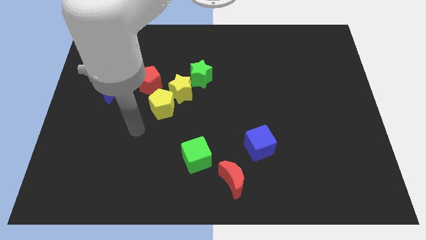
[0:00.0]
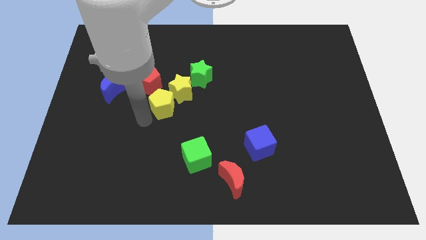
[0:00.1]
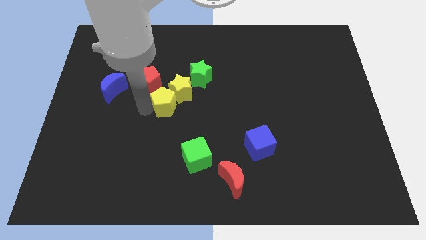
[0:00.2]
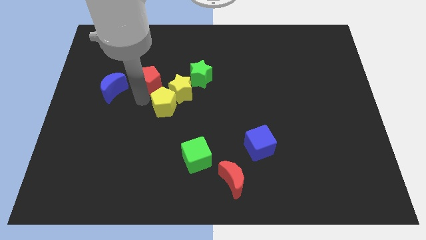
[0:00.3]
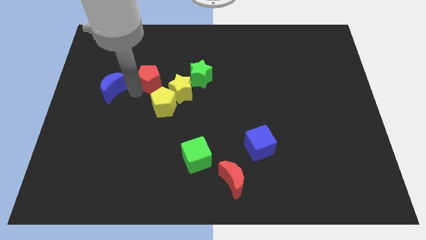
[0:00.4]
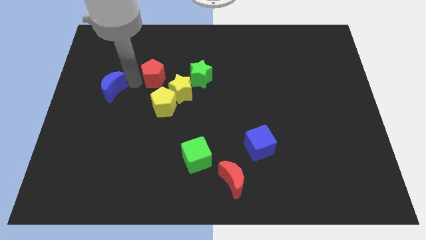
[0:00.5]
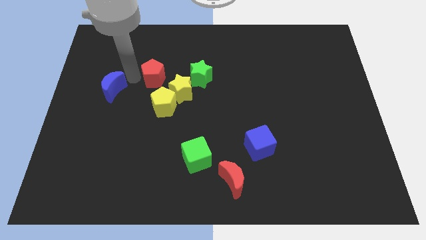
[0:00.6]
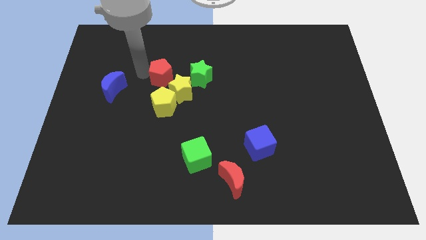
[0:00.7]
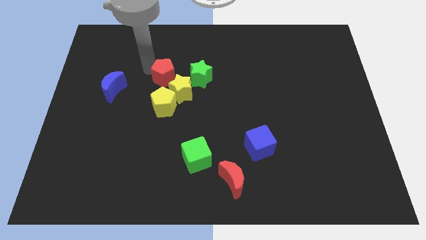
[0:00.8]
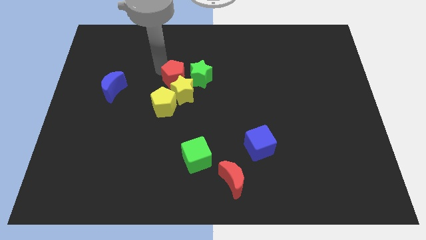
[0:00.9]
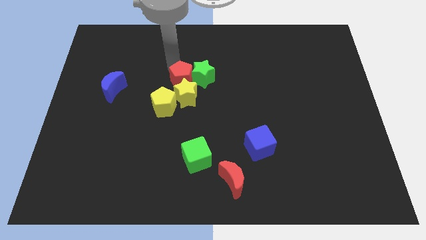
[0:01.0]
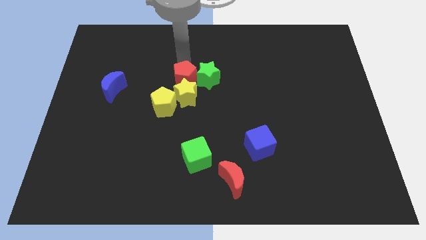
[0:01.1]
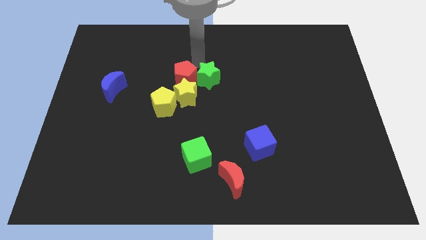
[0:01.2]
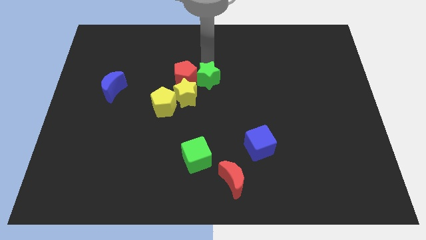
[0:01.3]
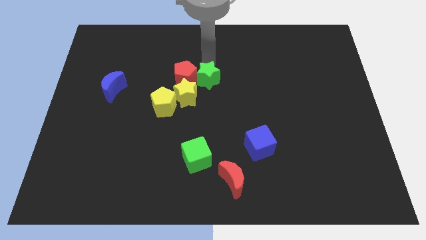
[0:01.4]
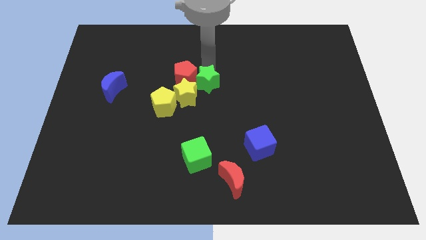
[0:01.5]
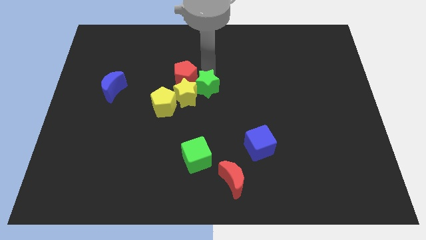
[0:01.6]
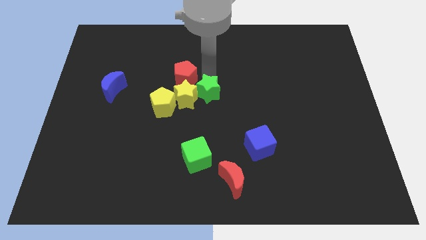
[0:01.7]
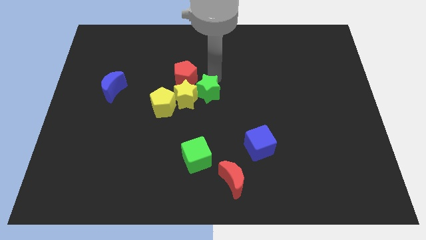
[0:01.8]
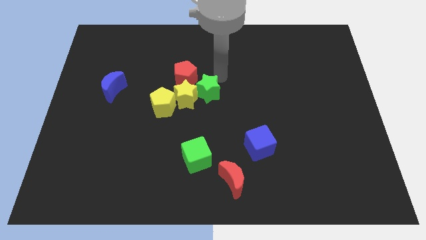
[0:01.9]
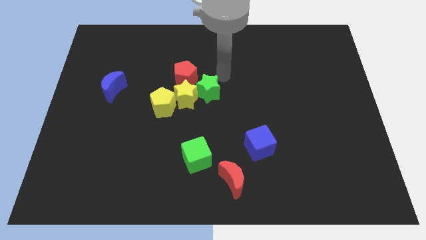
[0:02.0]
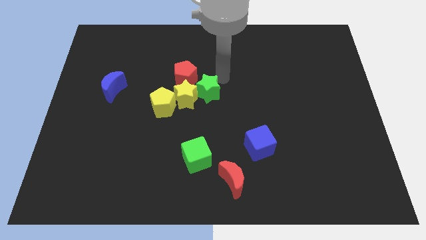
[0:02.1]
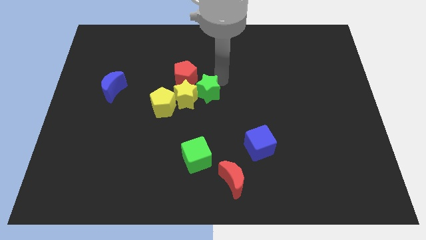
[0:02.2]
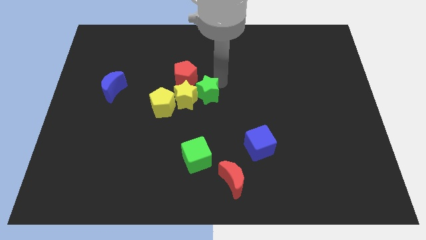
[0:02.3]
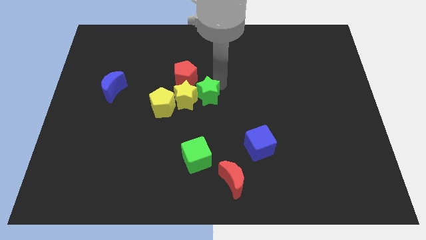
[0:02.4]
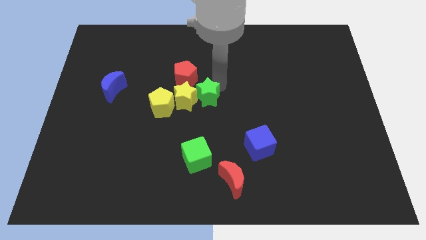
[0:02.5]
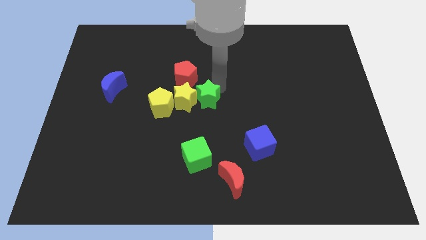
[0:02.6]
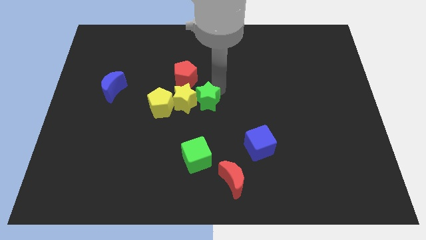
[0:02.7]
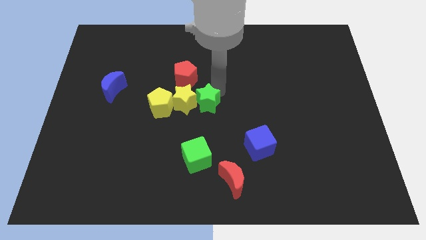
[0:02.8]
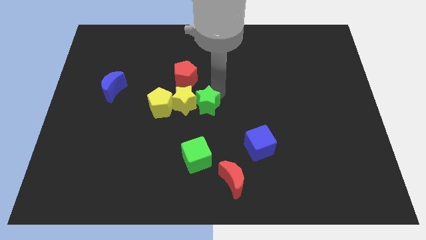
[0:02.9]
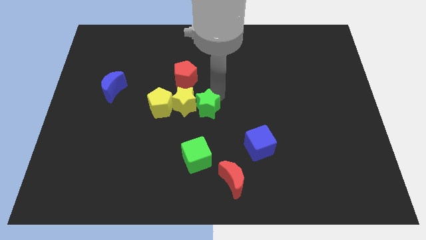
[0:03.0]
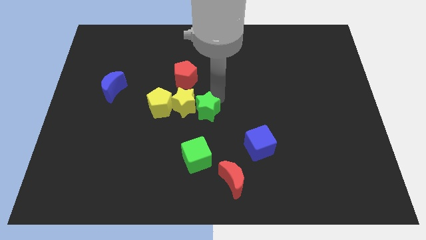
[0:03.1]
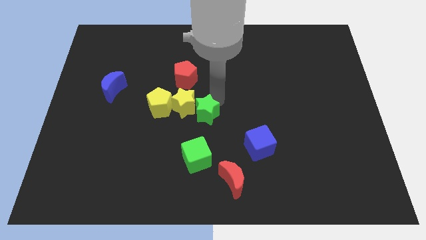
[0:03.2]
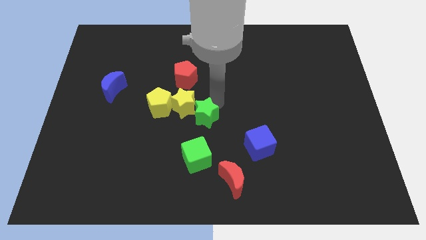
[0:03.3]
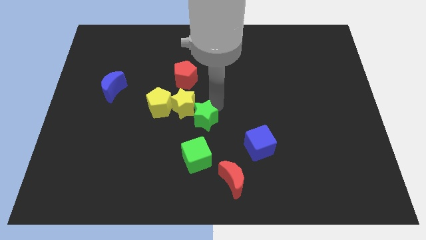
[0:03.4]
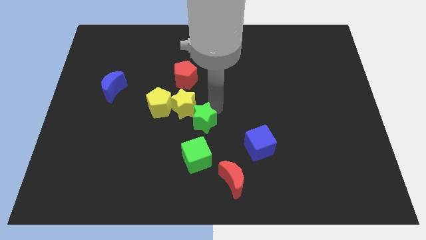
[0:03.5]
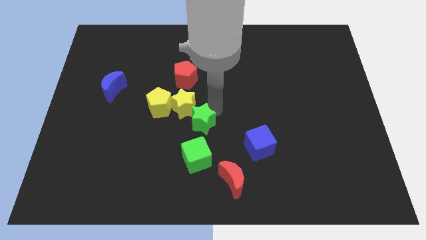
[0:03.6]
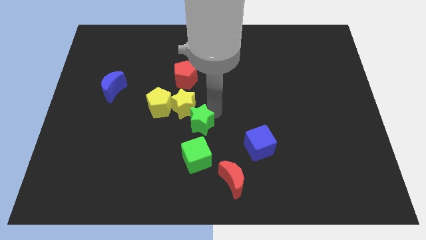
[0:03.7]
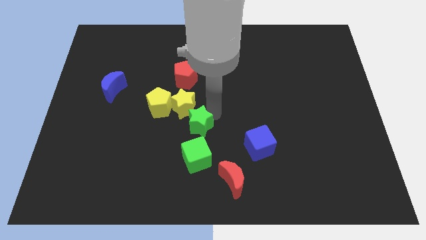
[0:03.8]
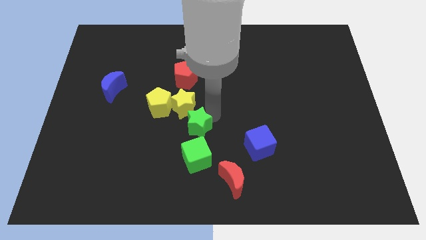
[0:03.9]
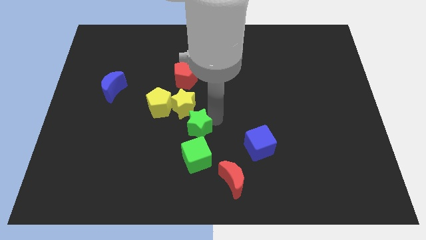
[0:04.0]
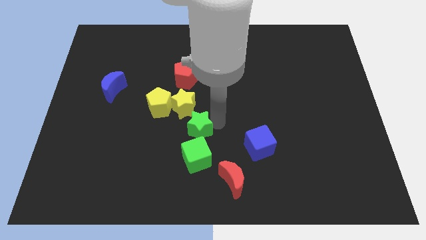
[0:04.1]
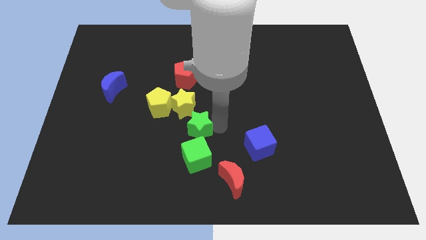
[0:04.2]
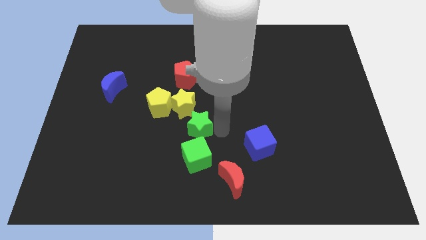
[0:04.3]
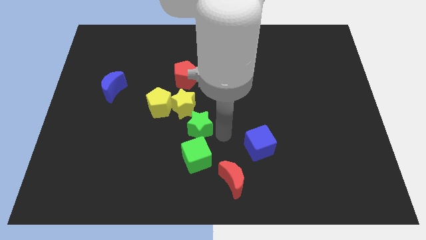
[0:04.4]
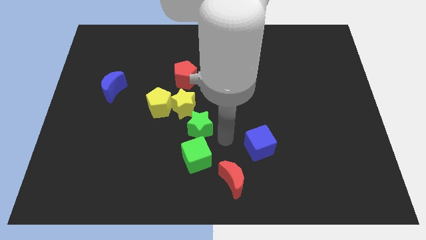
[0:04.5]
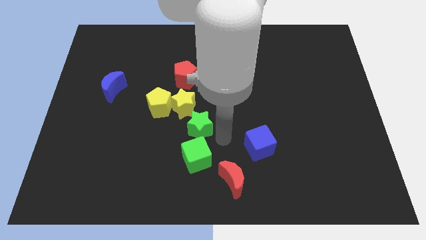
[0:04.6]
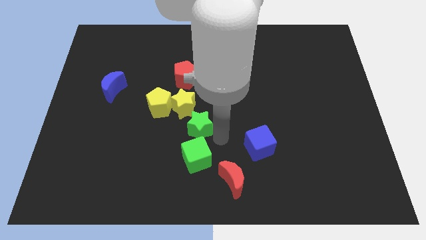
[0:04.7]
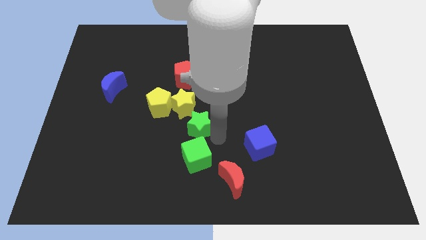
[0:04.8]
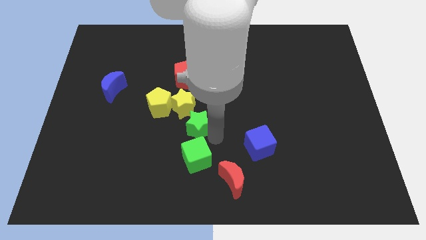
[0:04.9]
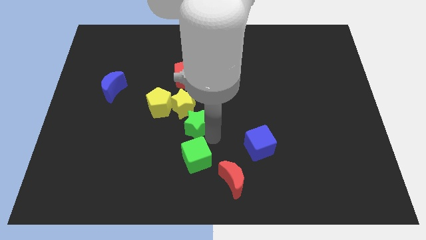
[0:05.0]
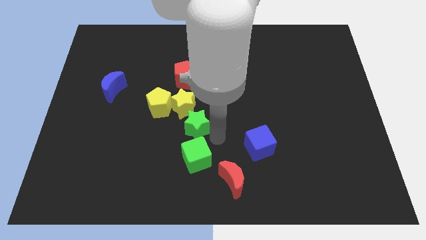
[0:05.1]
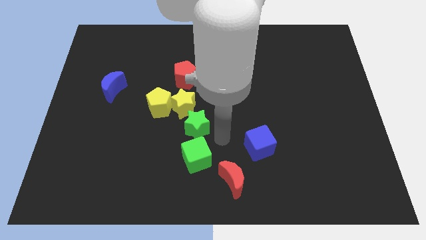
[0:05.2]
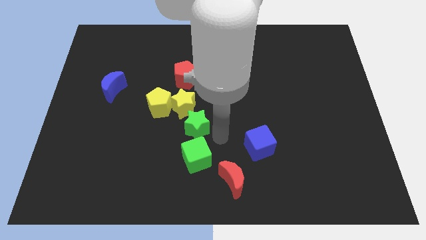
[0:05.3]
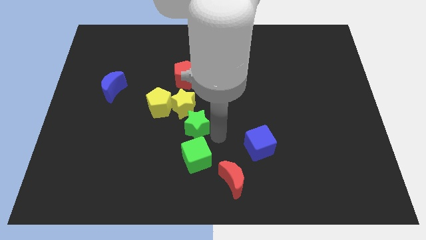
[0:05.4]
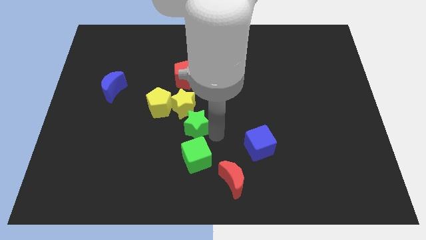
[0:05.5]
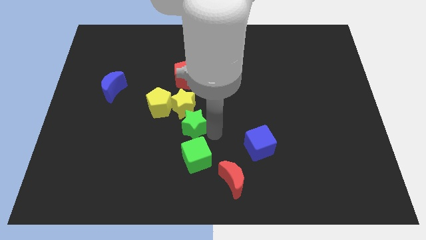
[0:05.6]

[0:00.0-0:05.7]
slightly push the green star diagonally downwards and left

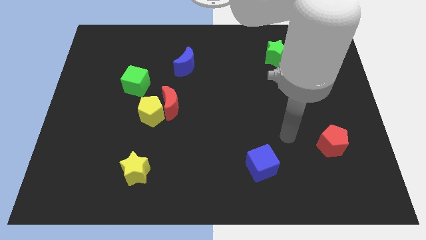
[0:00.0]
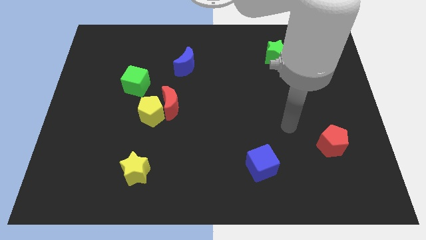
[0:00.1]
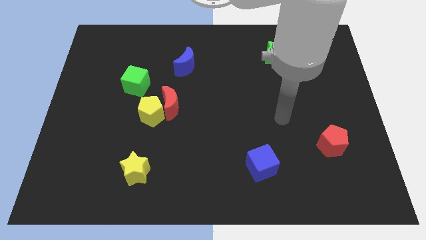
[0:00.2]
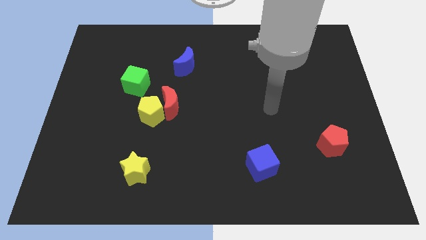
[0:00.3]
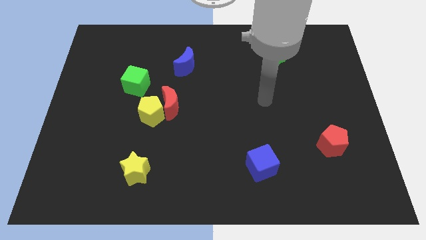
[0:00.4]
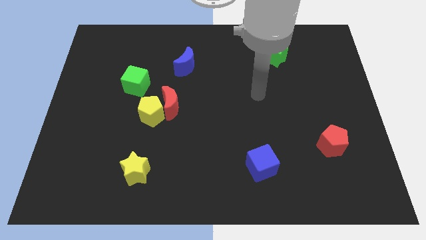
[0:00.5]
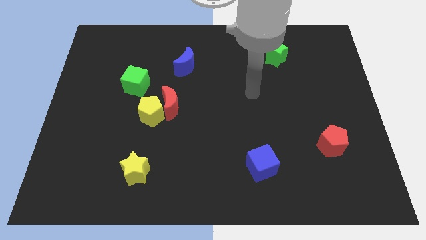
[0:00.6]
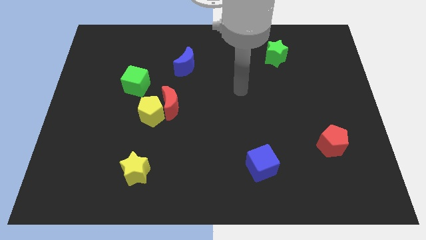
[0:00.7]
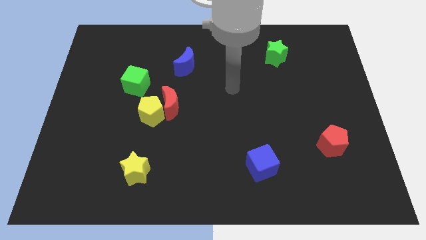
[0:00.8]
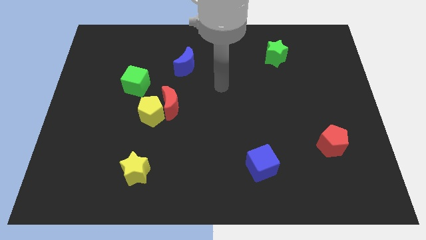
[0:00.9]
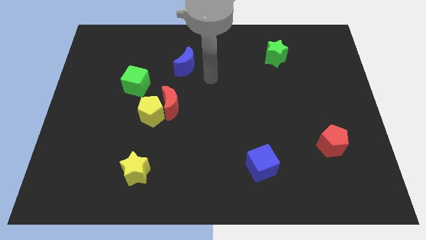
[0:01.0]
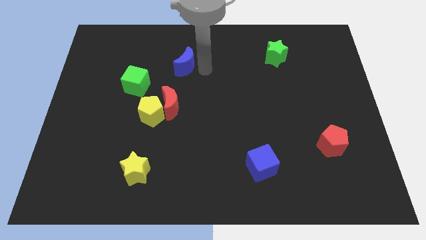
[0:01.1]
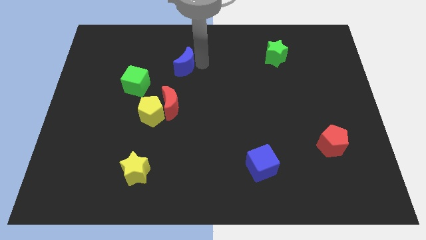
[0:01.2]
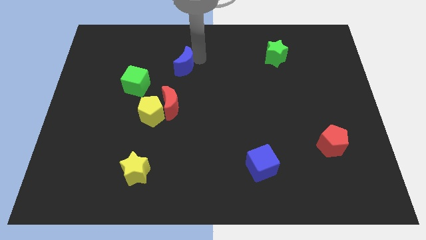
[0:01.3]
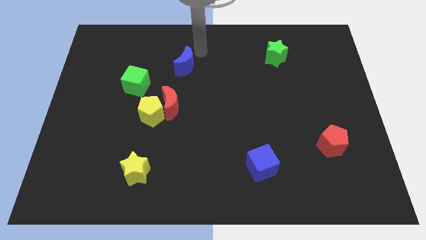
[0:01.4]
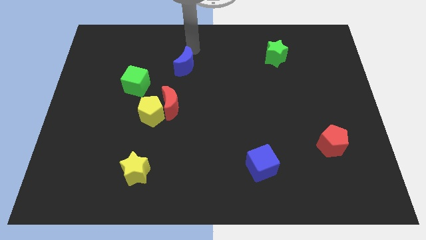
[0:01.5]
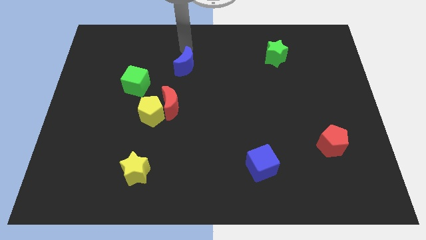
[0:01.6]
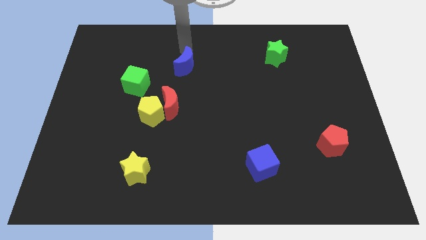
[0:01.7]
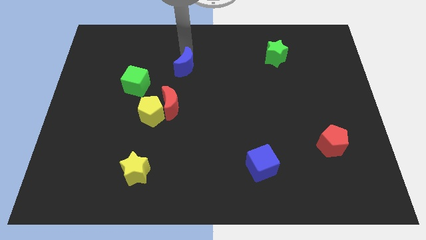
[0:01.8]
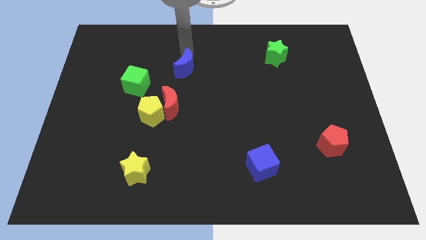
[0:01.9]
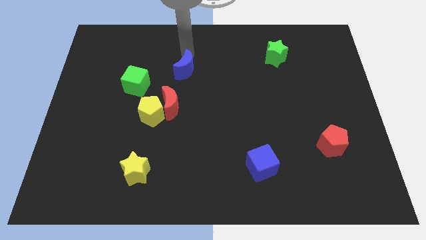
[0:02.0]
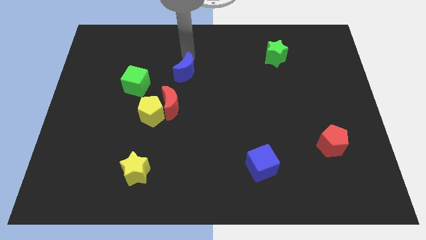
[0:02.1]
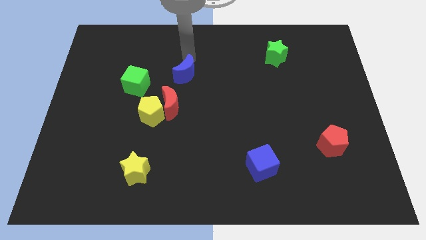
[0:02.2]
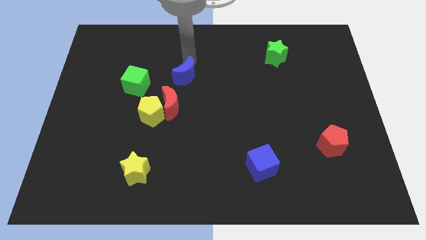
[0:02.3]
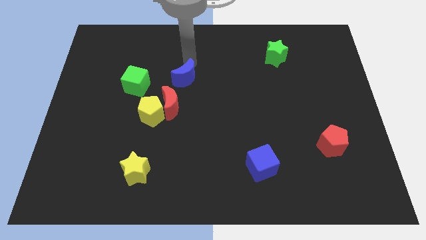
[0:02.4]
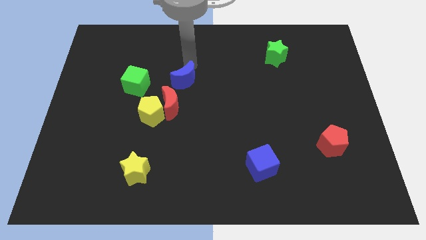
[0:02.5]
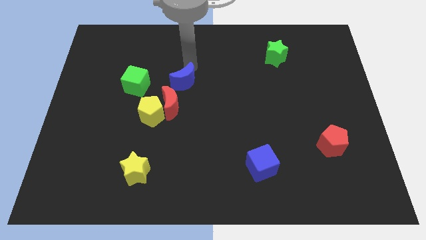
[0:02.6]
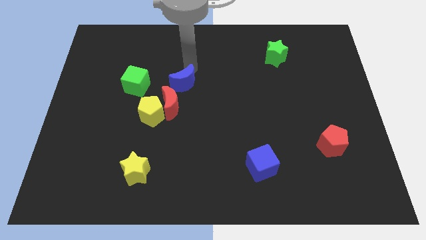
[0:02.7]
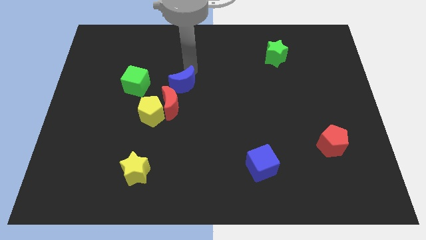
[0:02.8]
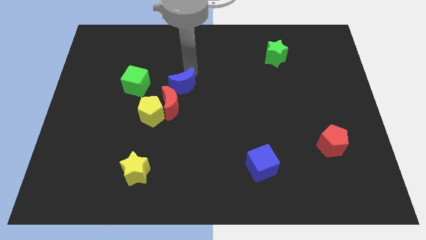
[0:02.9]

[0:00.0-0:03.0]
slide the blue moon downwards a little

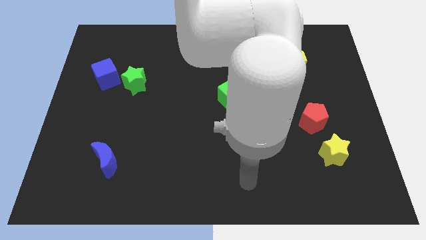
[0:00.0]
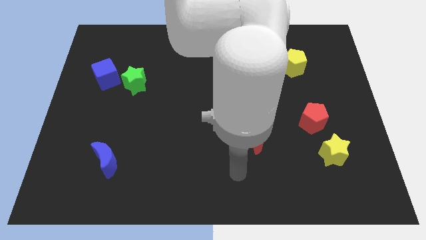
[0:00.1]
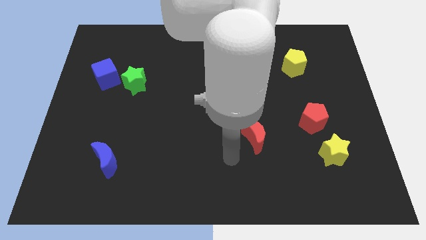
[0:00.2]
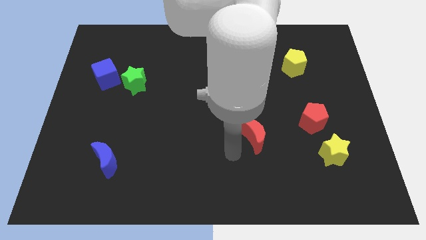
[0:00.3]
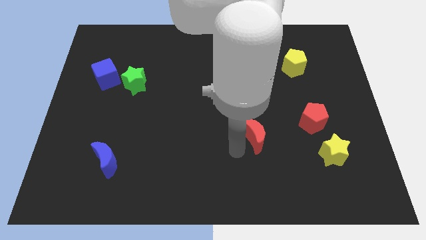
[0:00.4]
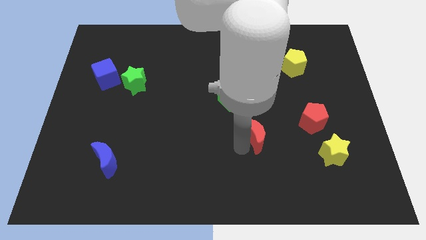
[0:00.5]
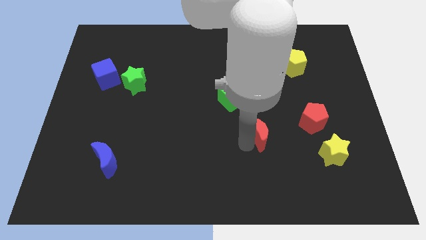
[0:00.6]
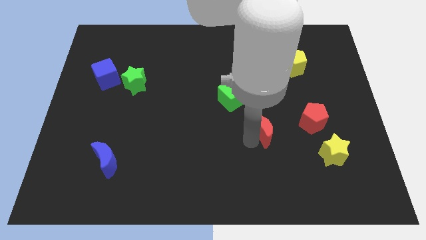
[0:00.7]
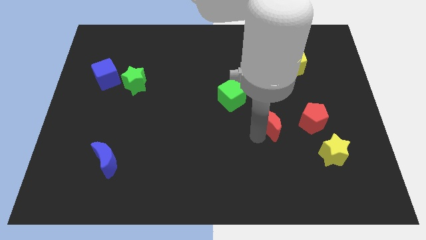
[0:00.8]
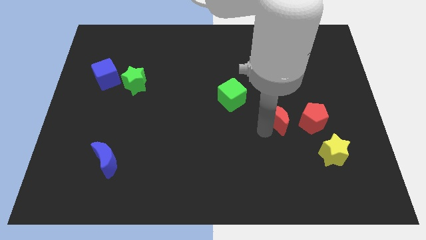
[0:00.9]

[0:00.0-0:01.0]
slightly move the red moon upwards and to the right
